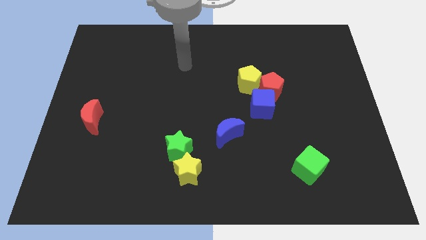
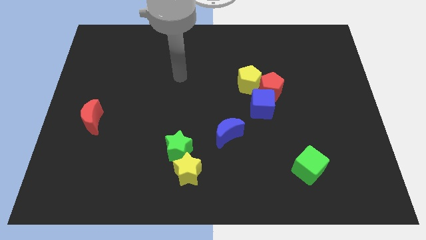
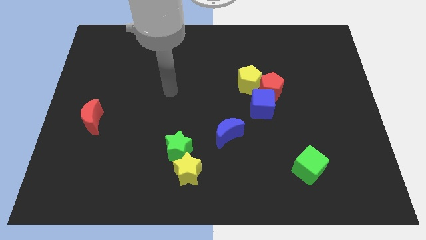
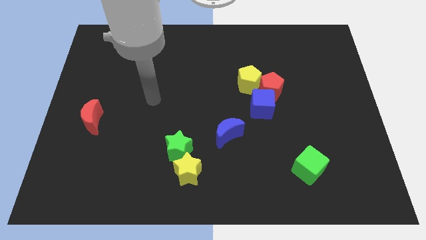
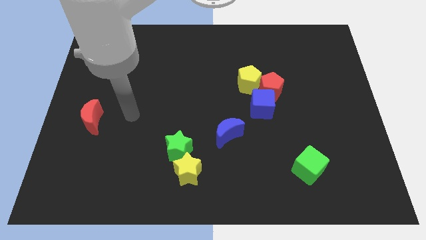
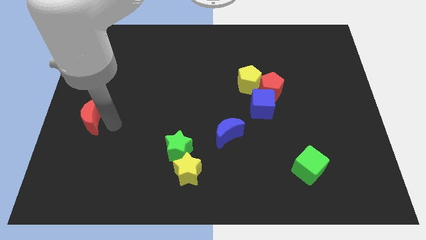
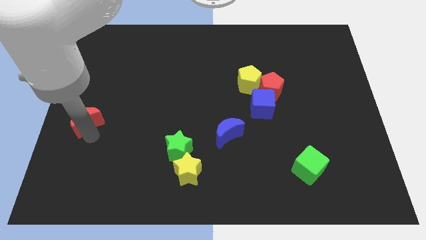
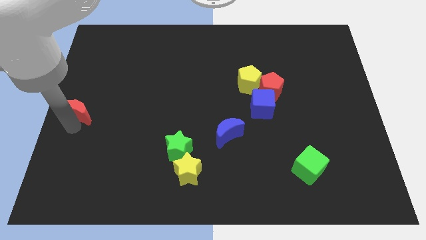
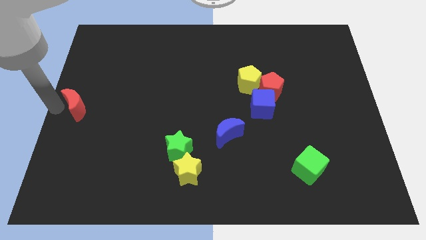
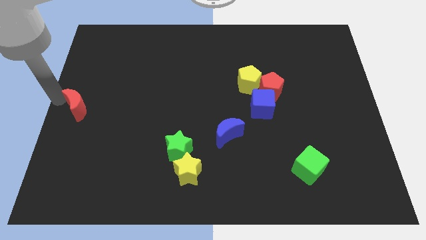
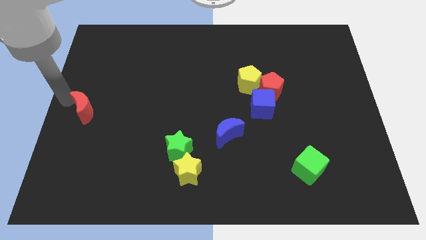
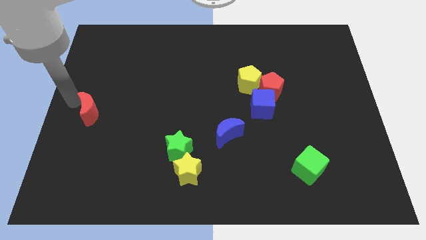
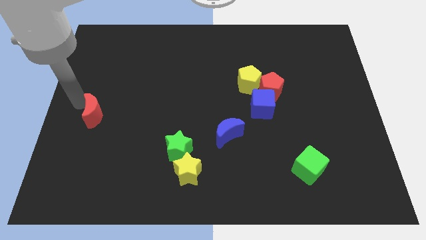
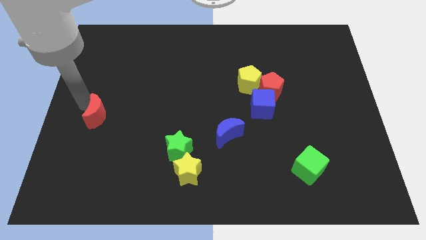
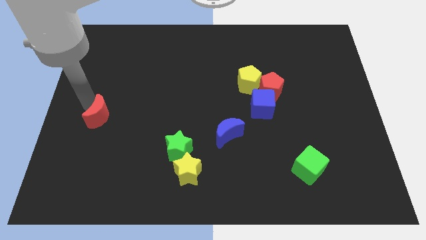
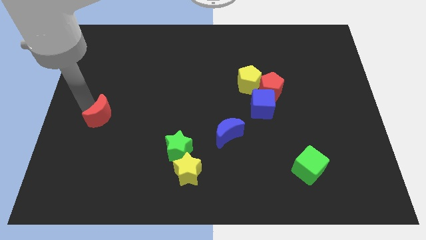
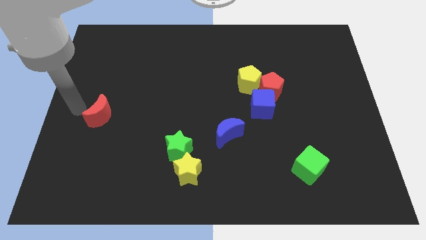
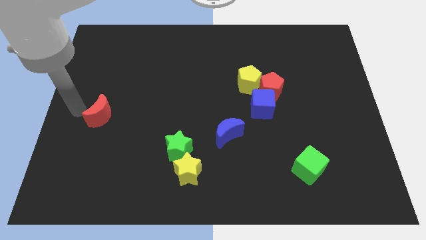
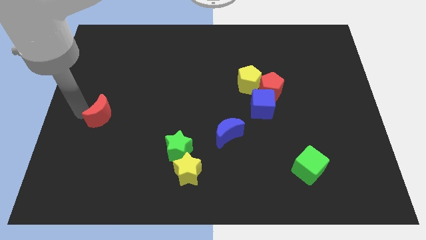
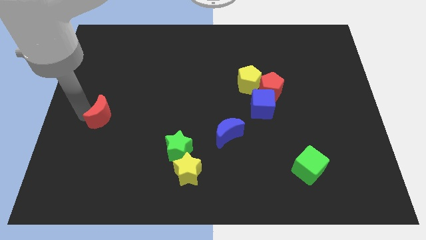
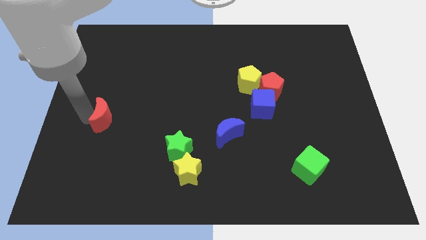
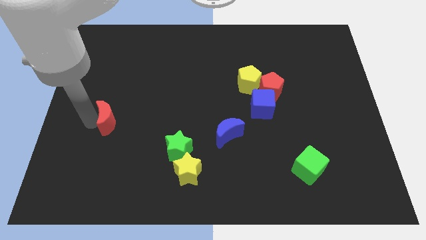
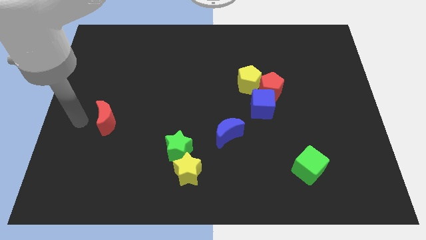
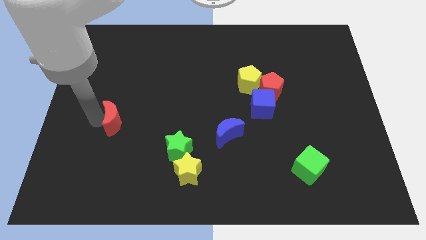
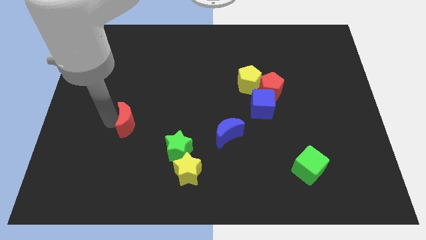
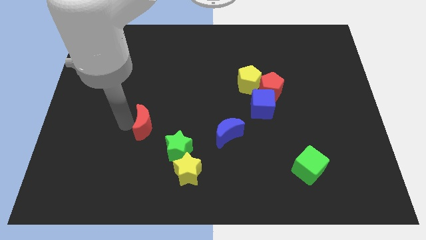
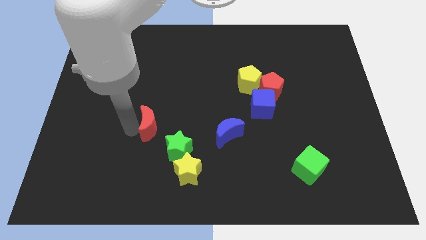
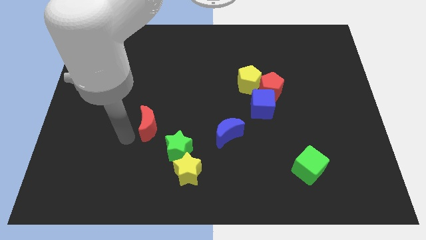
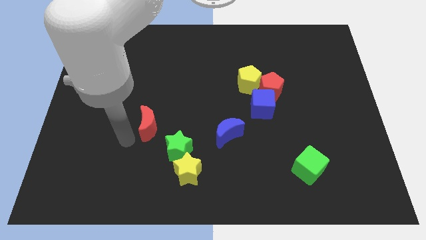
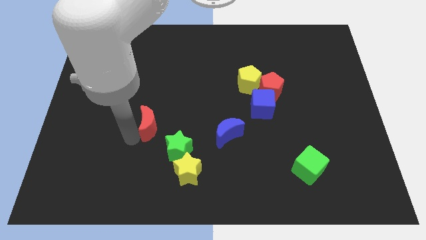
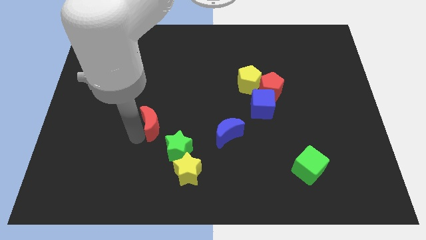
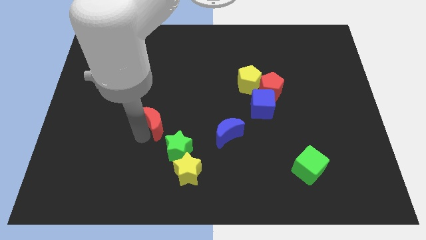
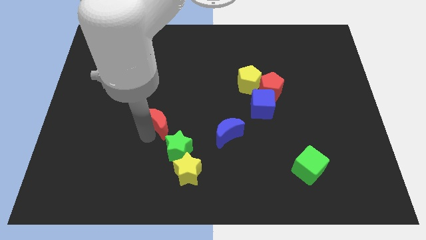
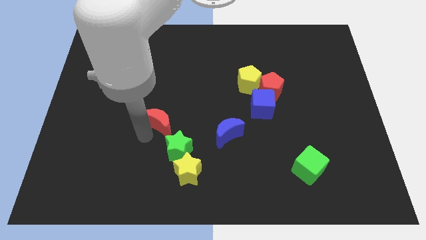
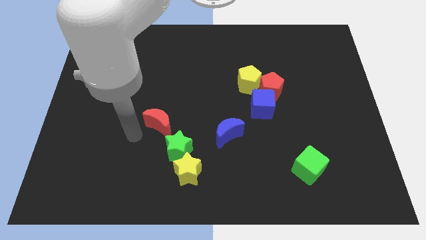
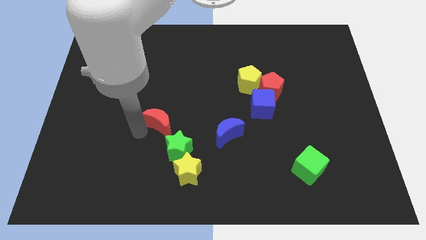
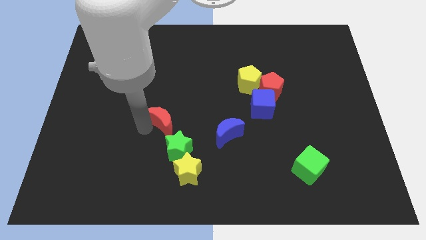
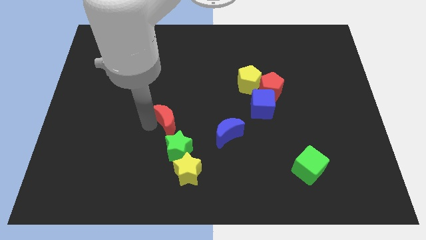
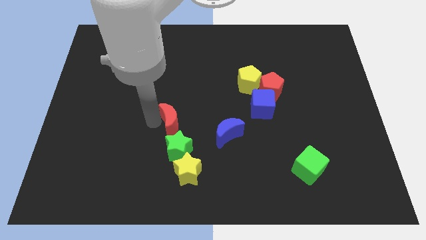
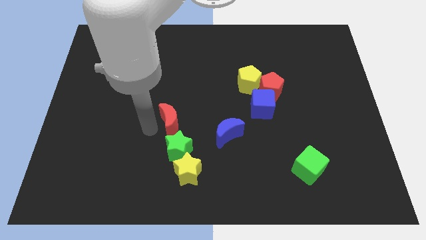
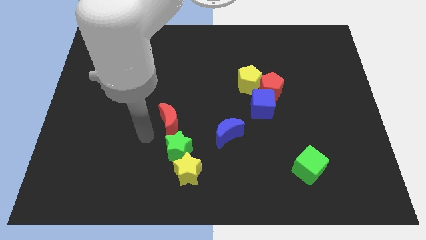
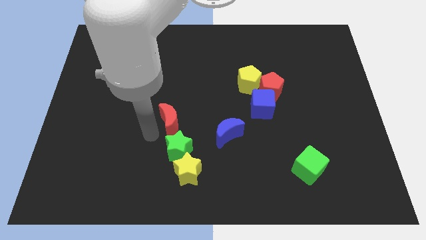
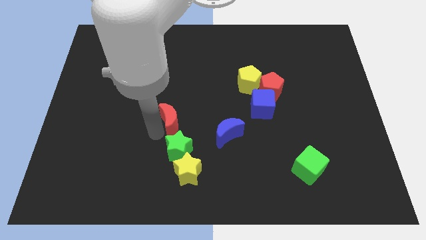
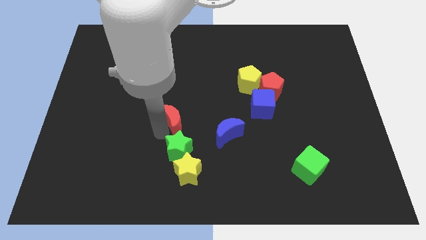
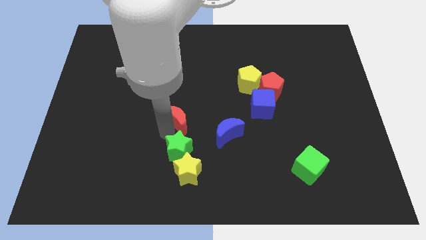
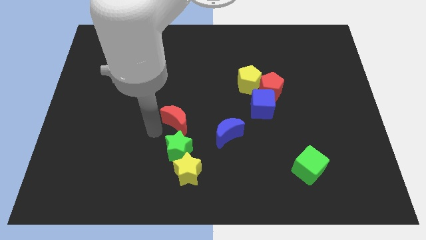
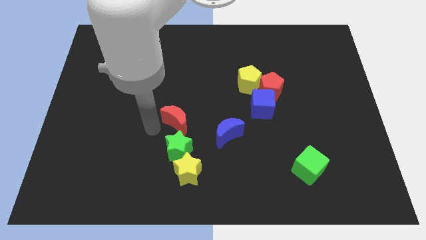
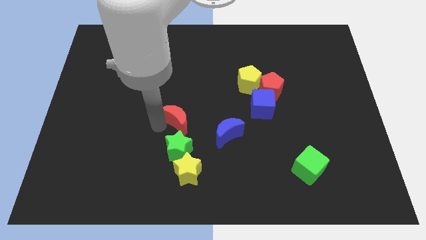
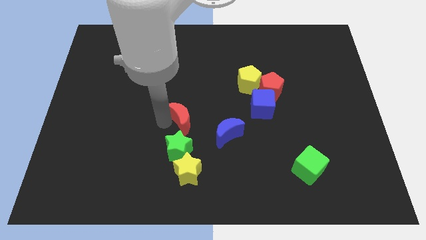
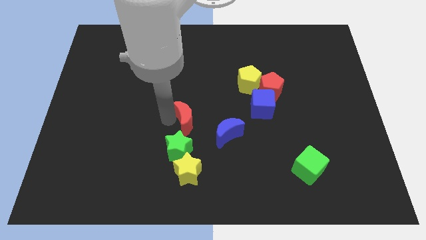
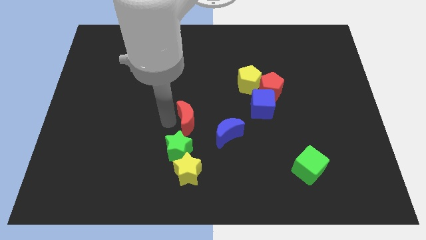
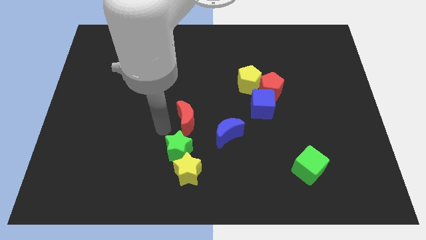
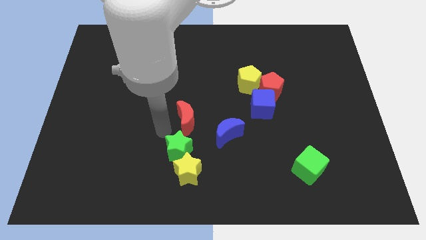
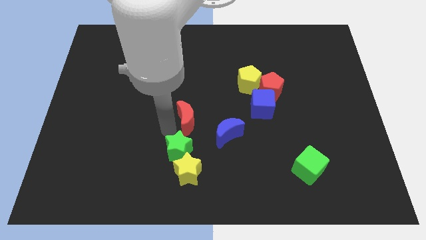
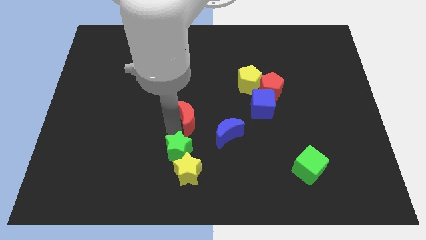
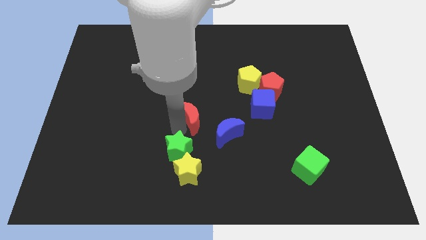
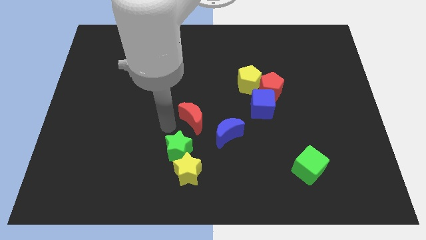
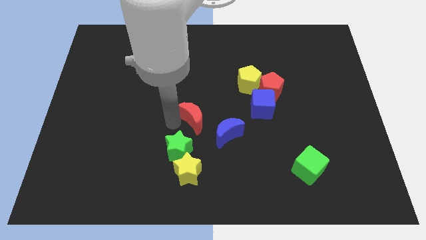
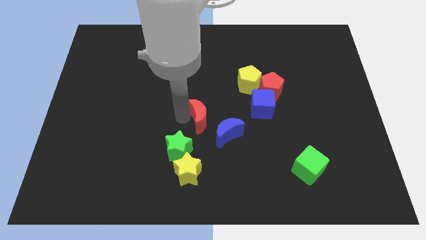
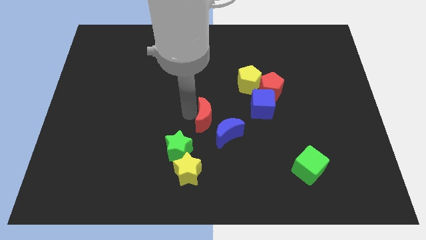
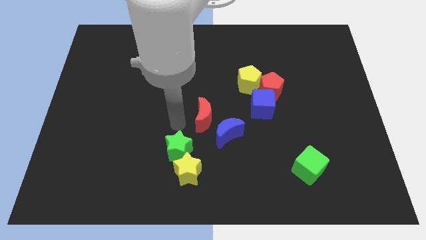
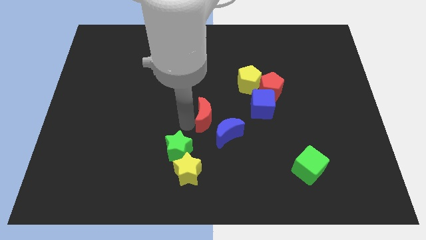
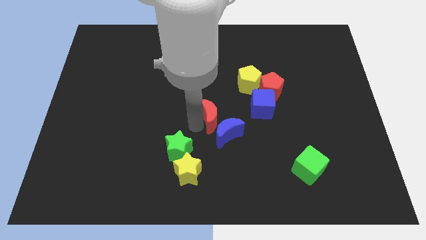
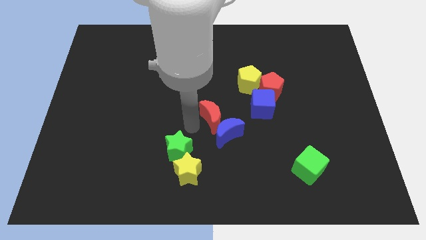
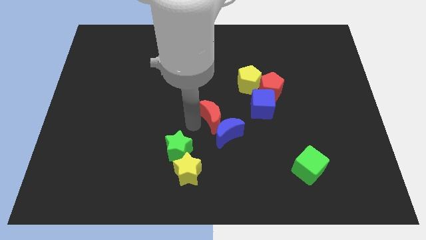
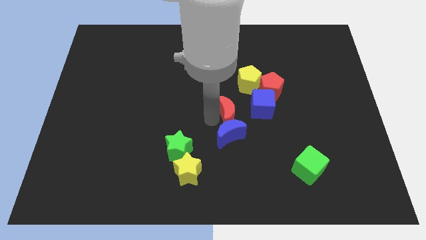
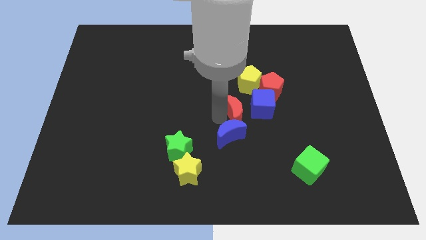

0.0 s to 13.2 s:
put the red moon diagonally down and to the left of the red pentagon

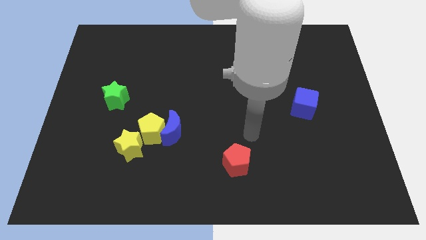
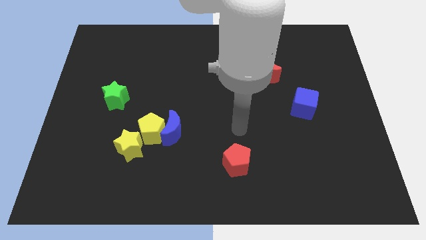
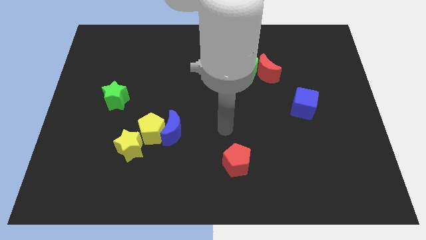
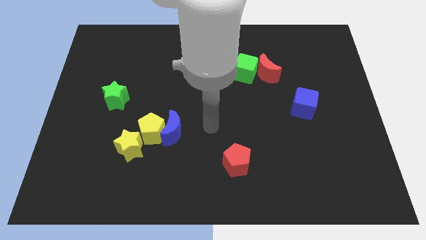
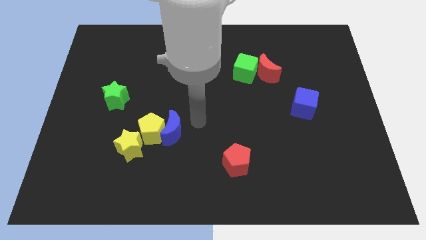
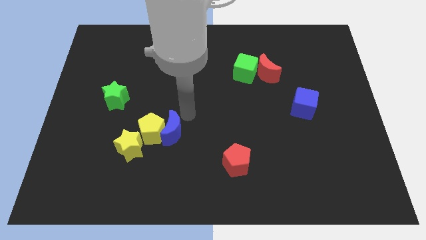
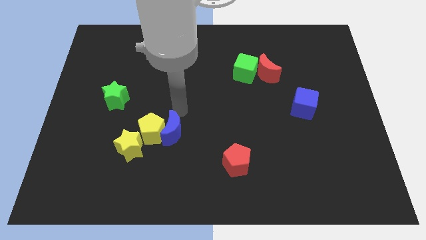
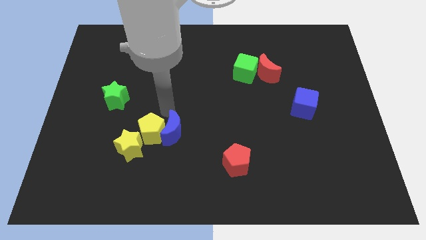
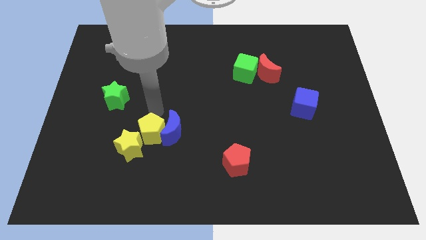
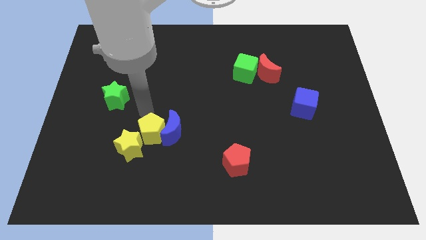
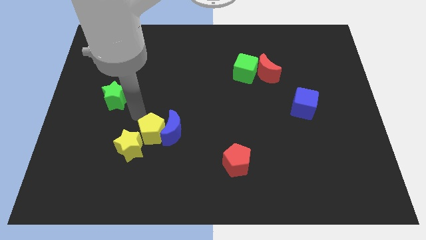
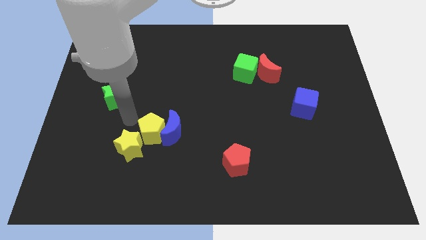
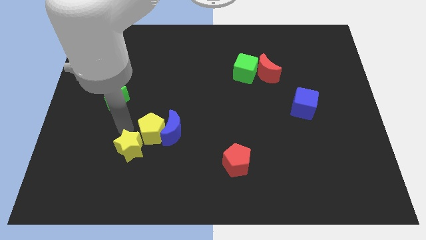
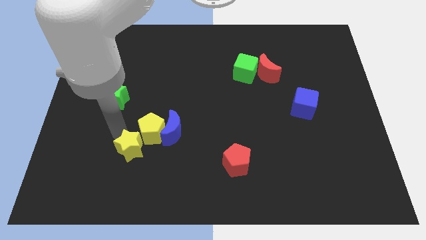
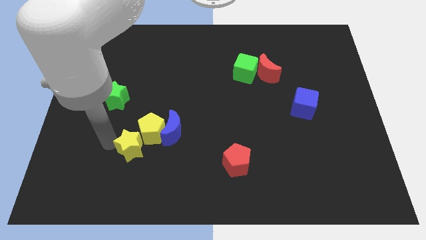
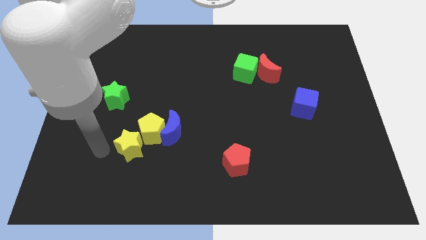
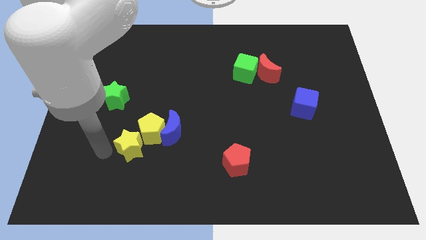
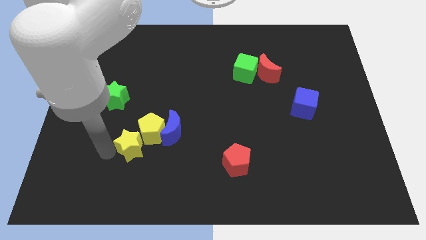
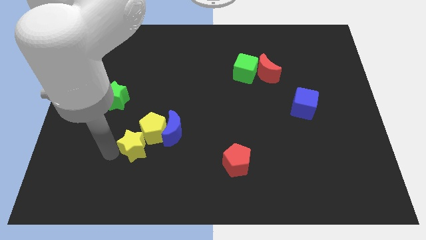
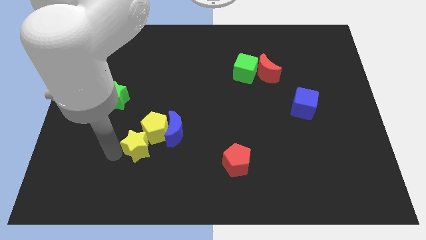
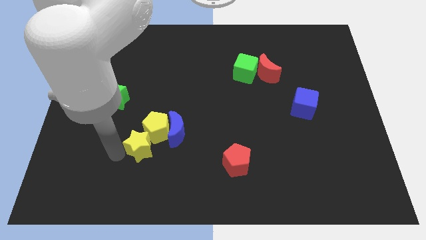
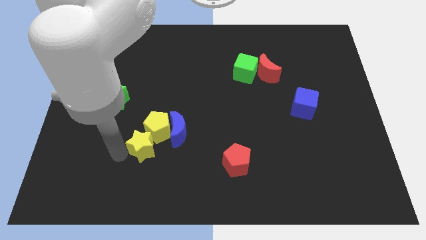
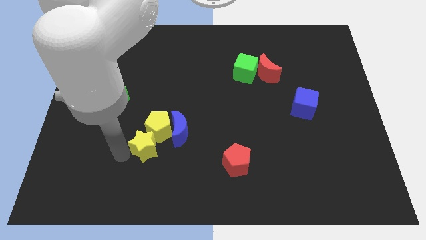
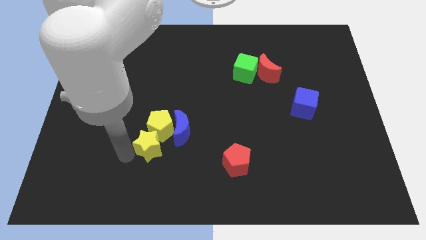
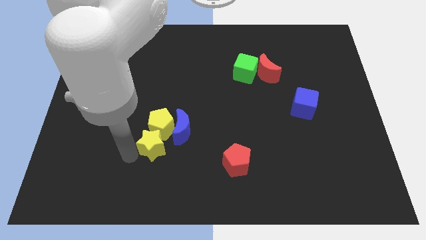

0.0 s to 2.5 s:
push the yellow star to the bottom right side of the yellow pentagon
